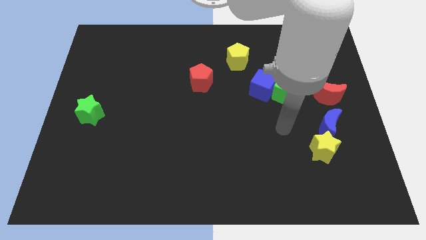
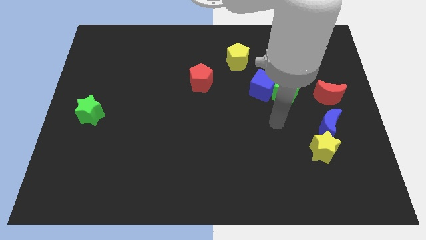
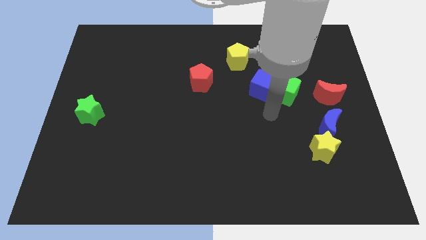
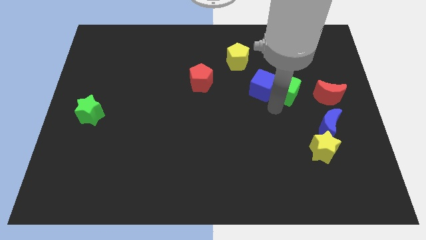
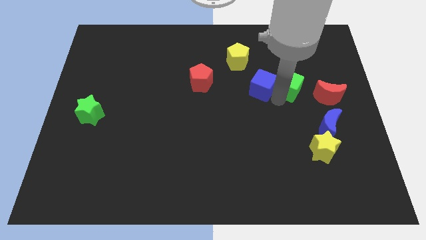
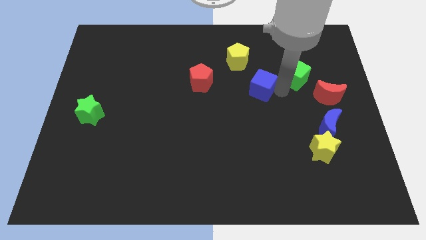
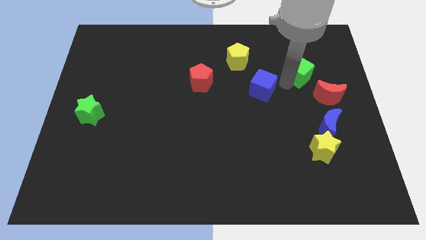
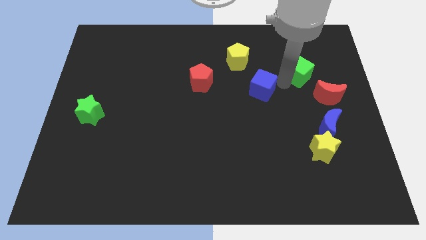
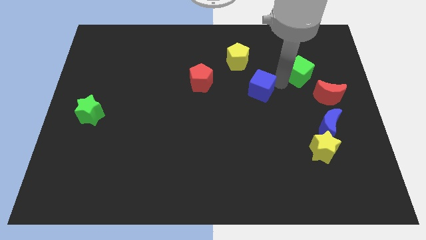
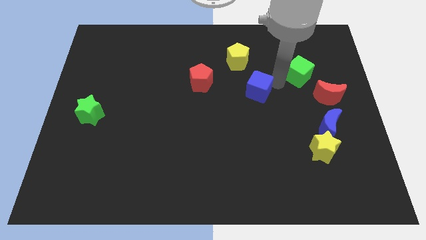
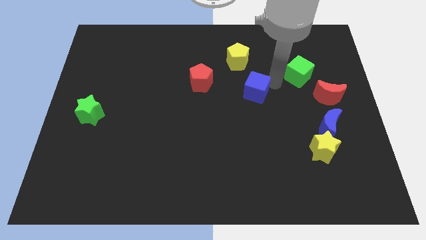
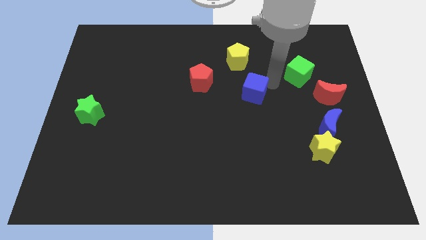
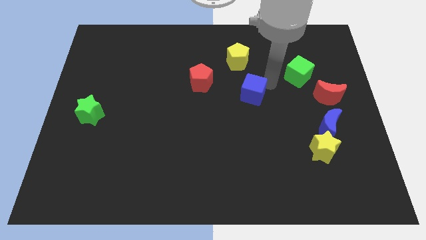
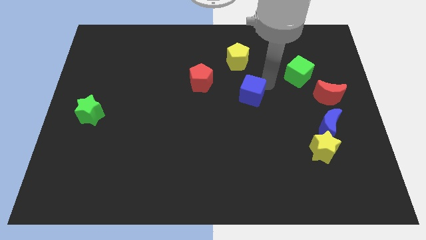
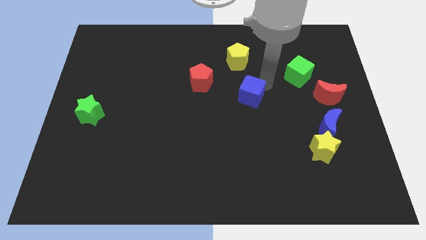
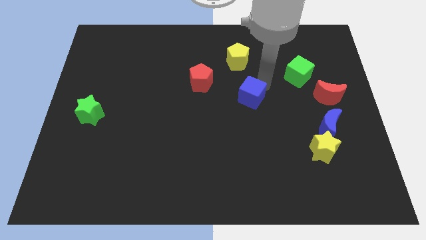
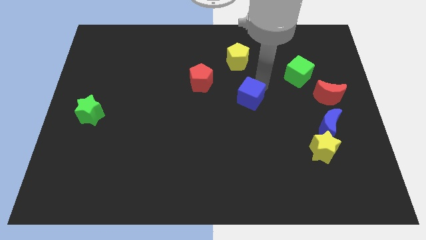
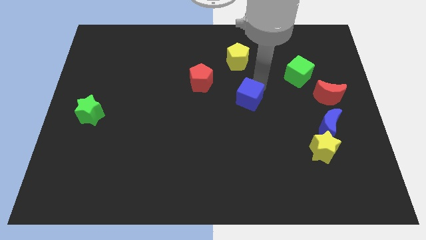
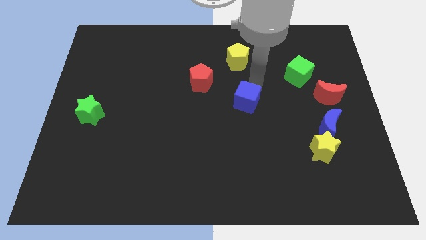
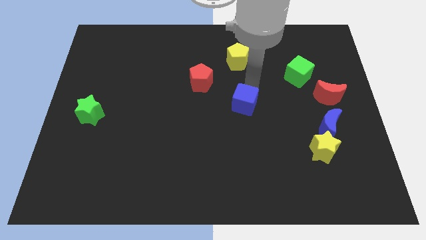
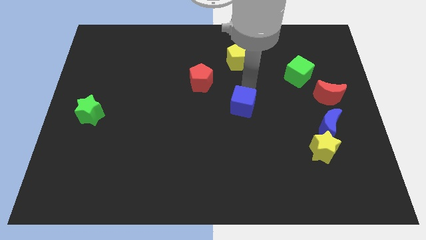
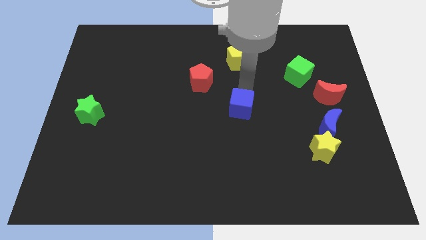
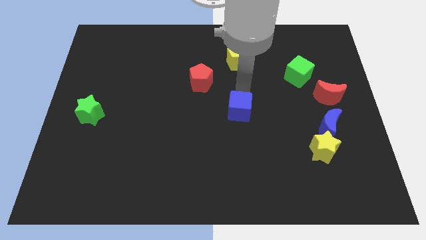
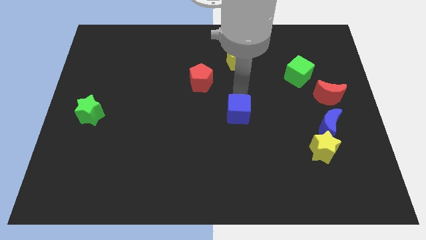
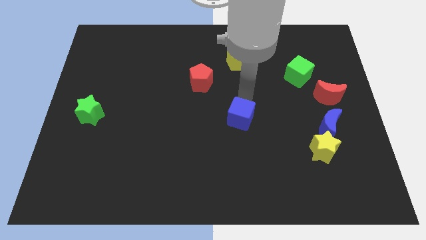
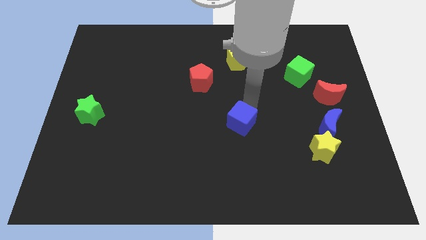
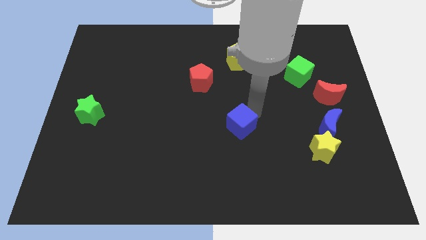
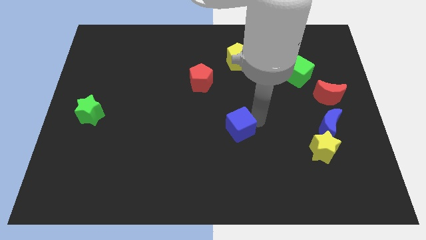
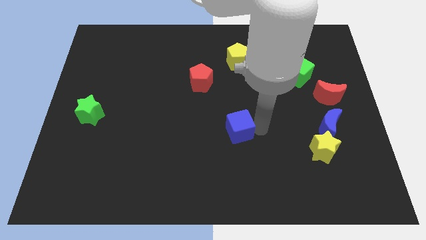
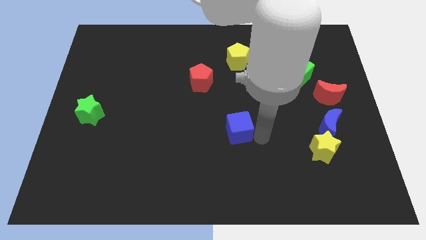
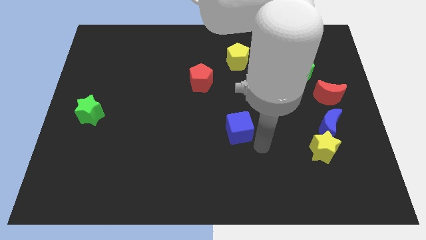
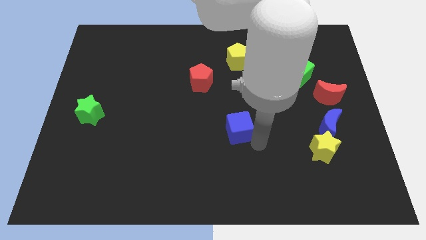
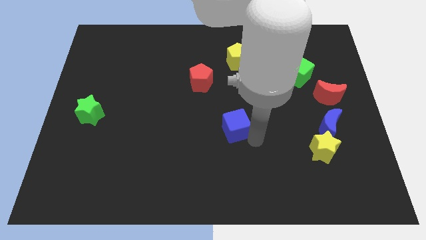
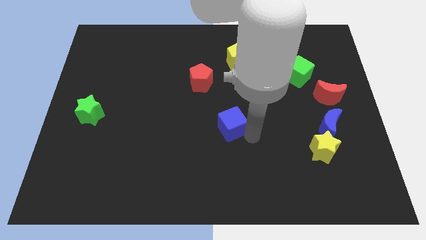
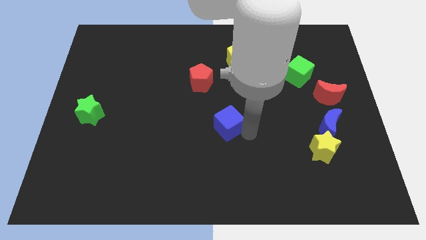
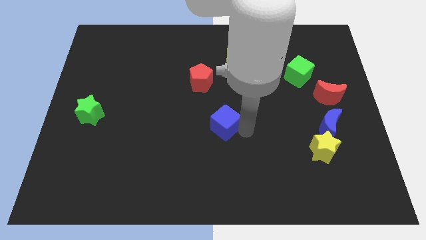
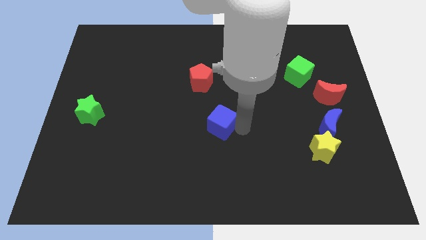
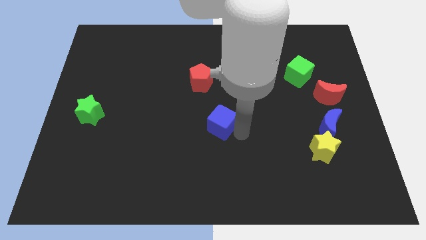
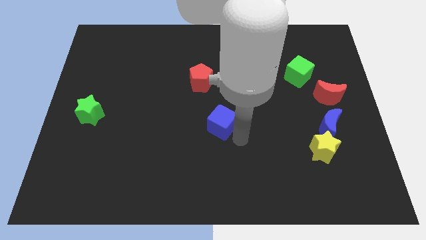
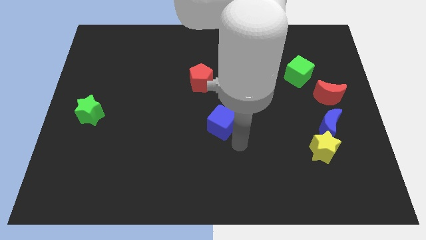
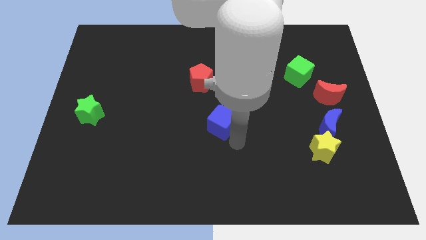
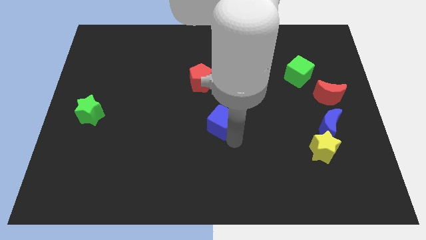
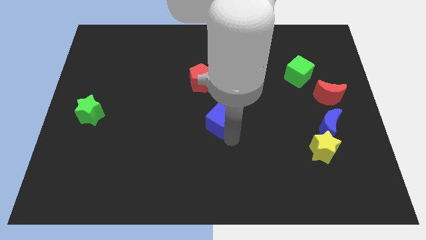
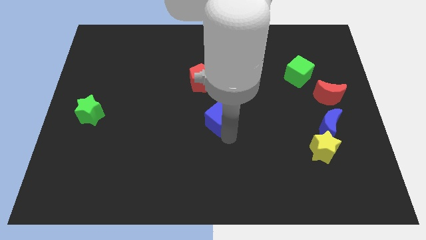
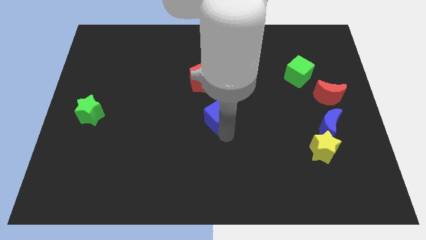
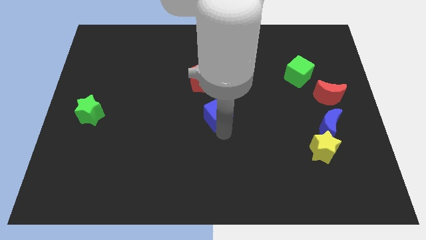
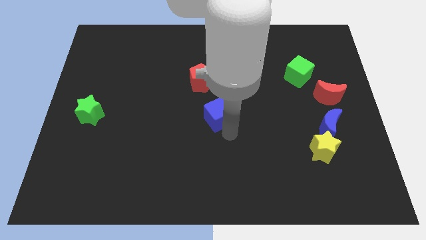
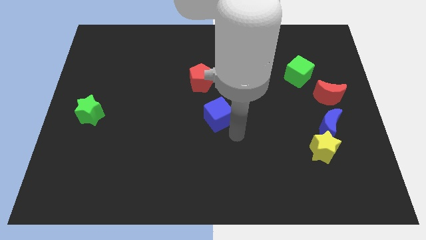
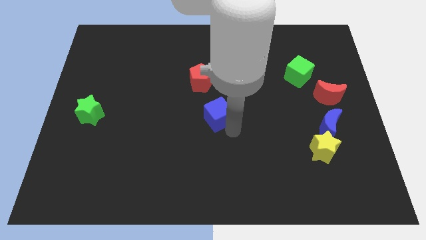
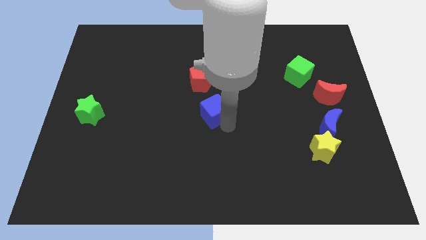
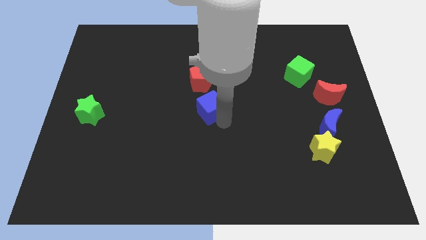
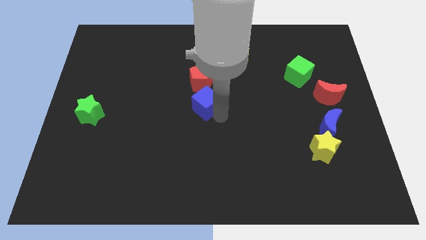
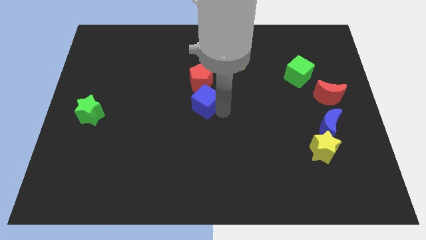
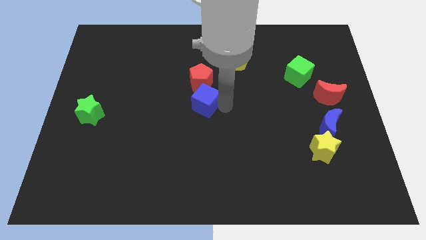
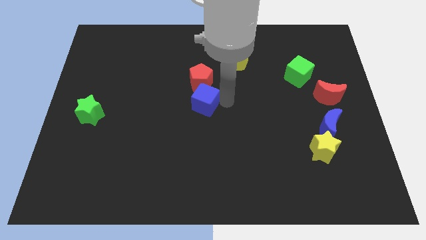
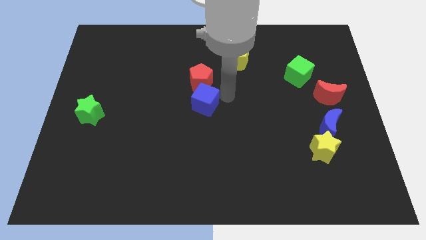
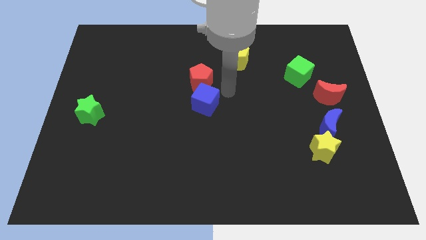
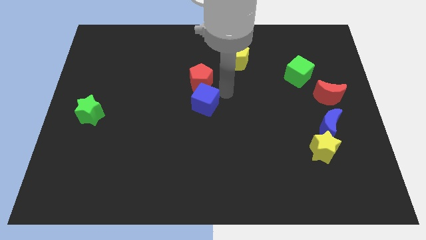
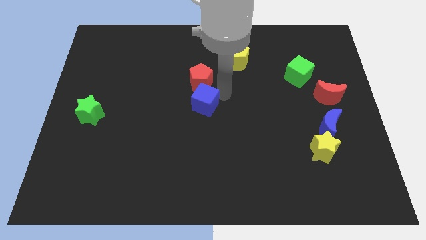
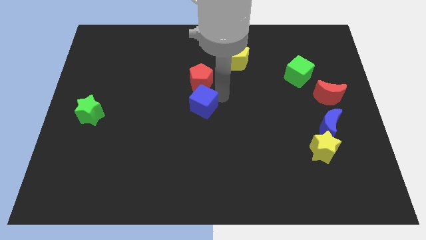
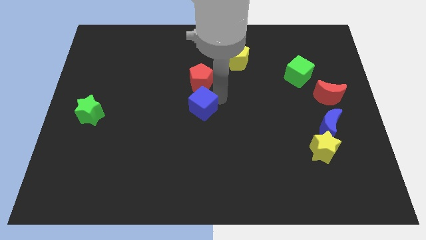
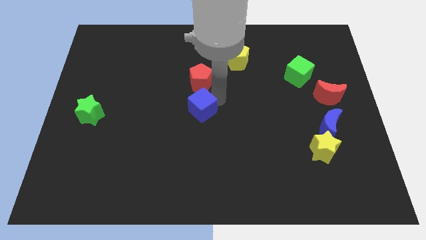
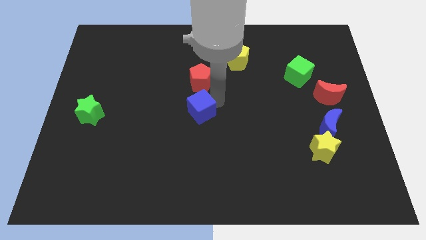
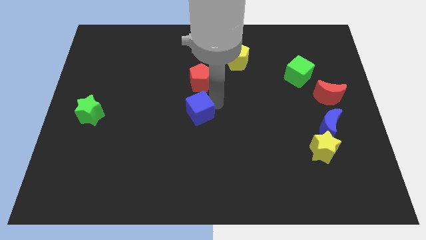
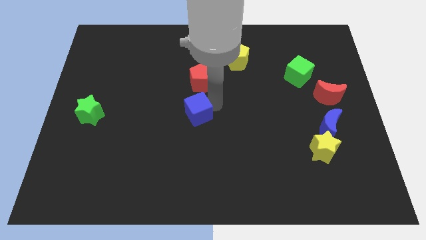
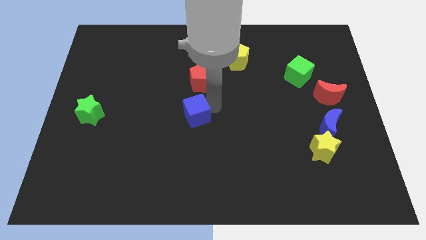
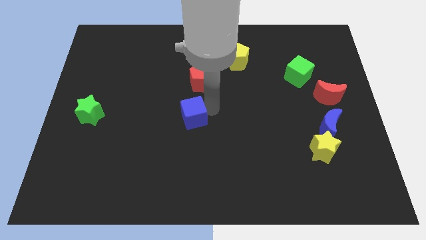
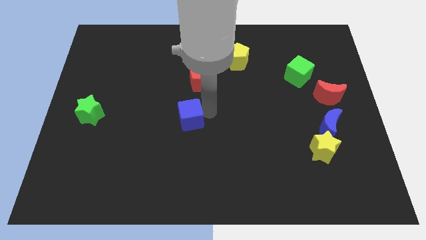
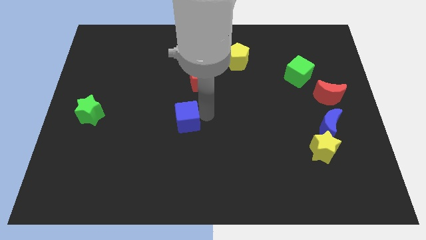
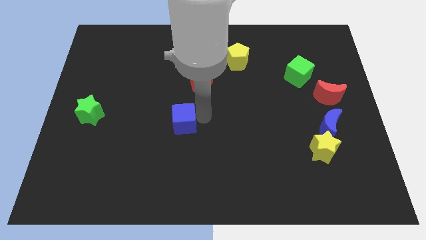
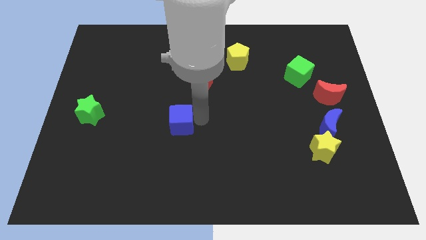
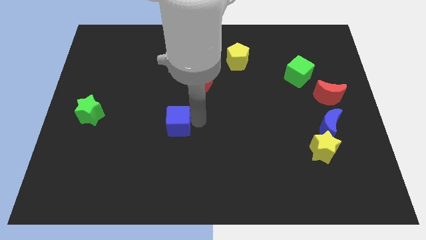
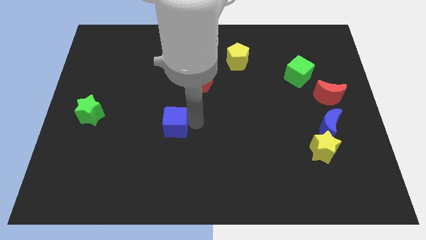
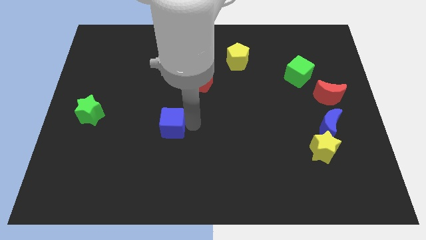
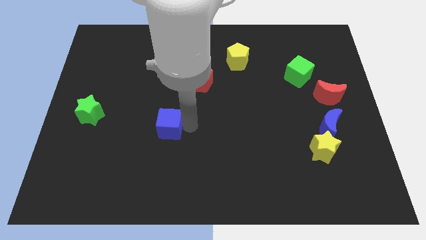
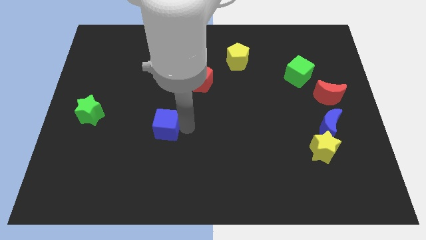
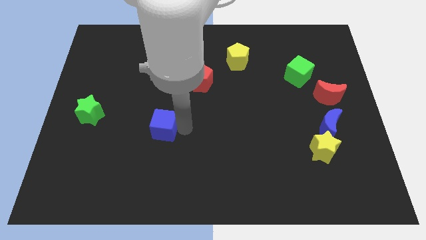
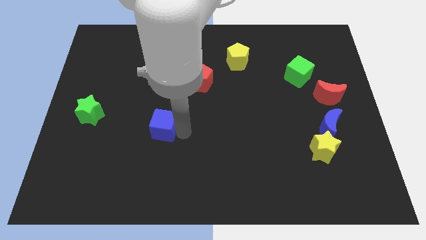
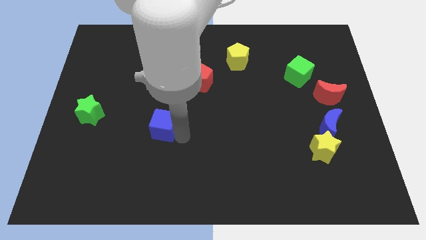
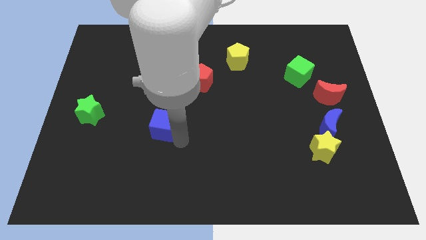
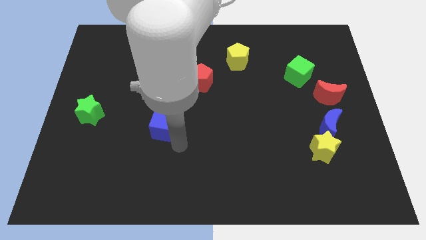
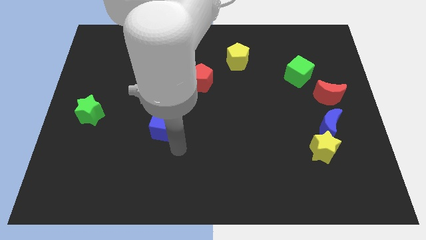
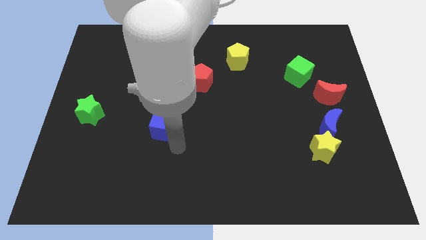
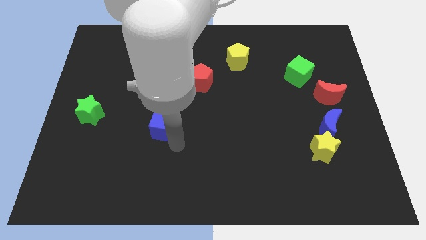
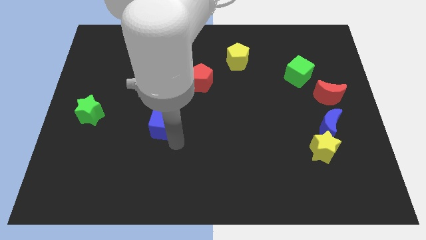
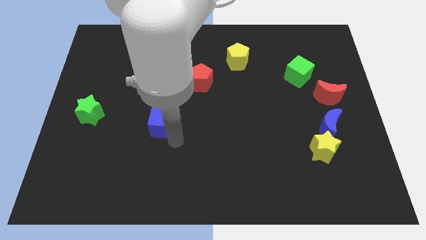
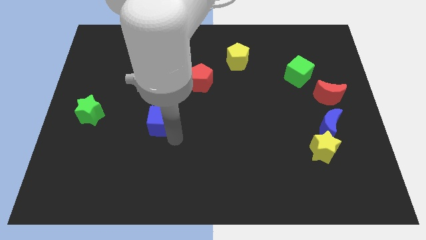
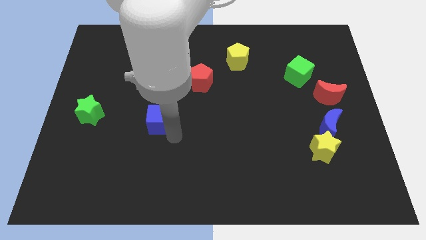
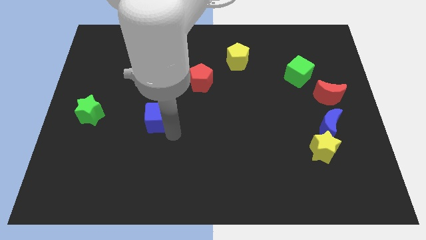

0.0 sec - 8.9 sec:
move the blue cube right of the green star
